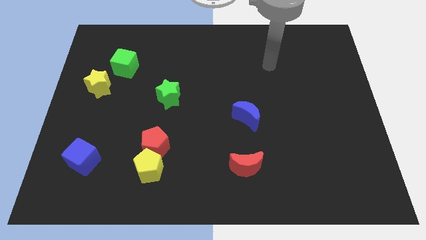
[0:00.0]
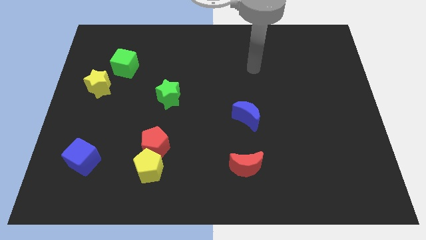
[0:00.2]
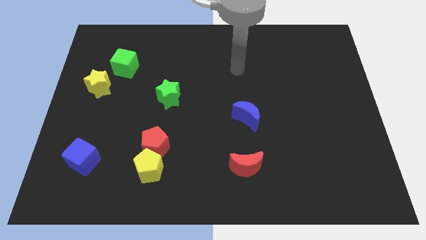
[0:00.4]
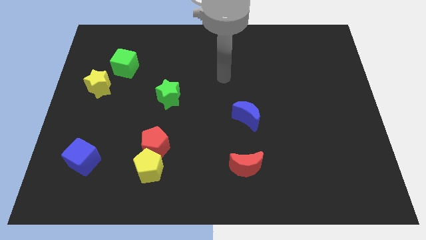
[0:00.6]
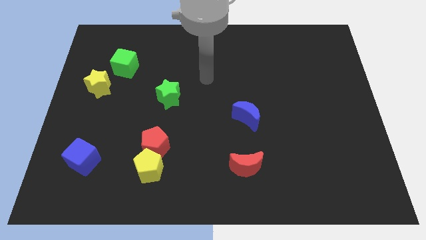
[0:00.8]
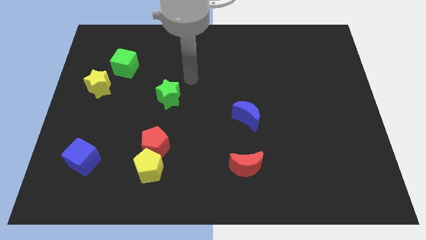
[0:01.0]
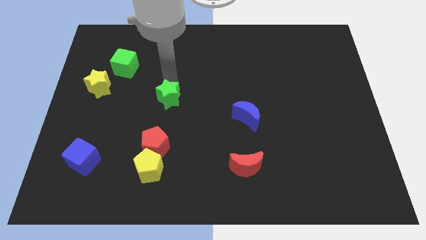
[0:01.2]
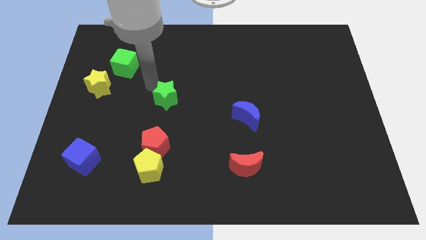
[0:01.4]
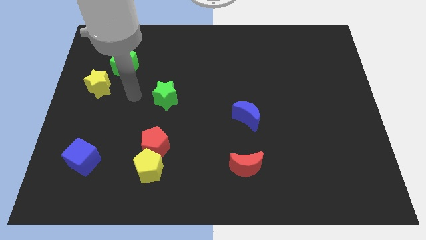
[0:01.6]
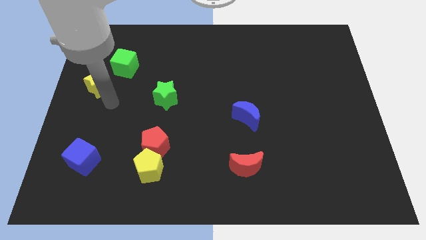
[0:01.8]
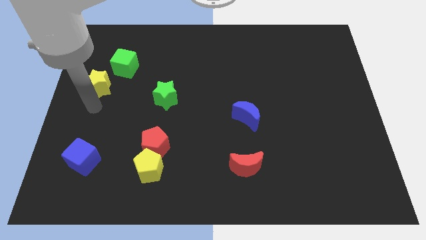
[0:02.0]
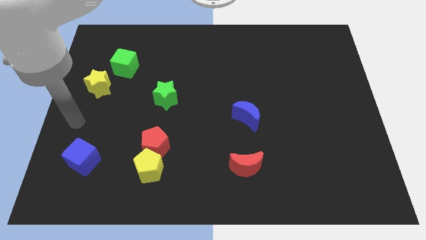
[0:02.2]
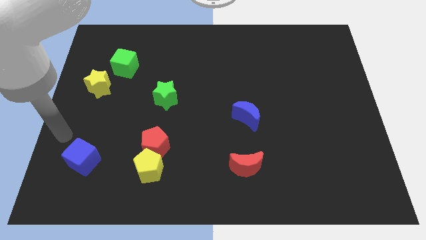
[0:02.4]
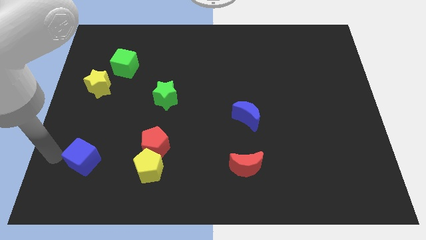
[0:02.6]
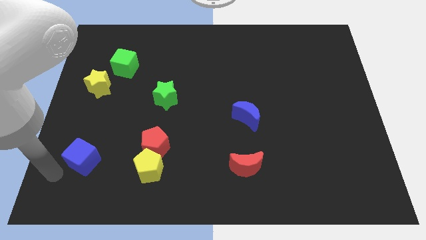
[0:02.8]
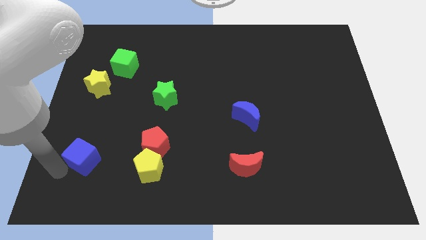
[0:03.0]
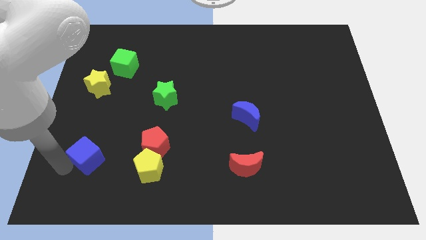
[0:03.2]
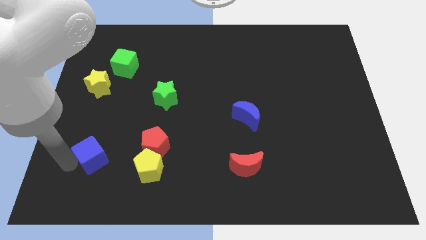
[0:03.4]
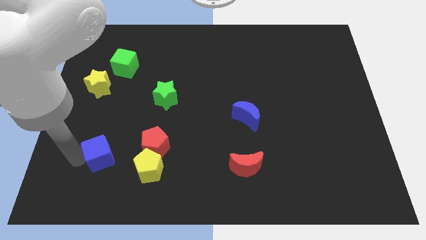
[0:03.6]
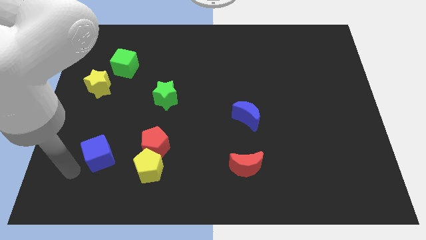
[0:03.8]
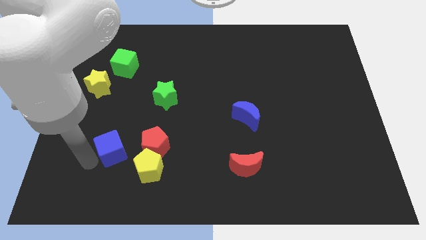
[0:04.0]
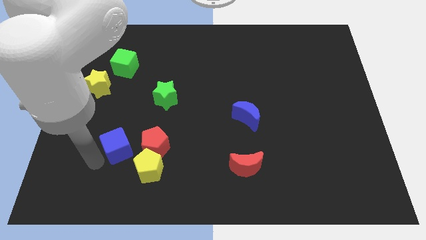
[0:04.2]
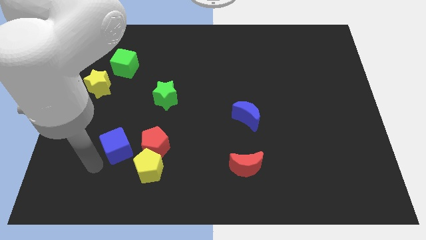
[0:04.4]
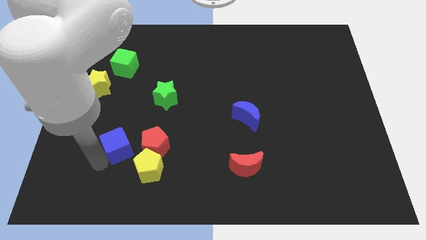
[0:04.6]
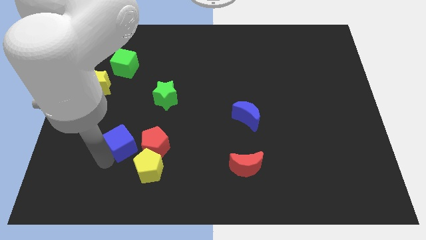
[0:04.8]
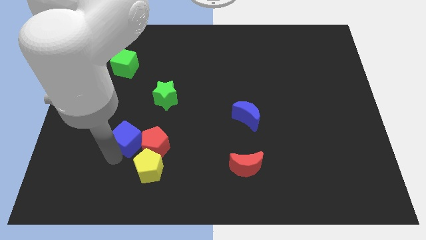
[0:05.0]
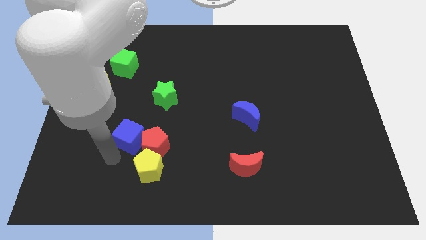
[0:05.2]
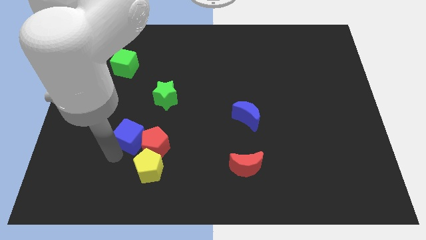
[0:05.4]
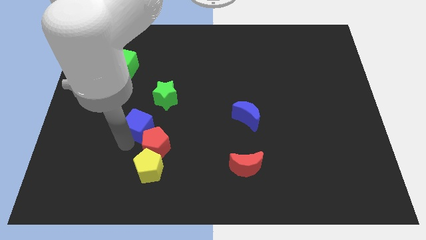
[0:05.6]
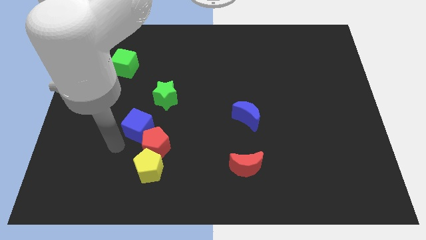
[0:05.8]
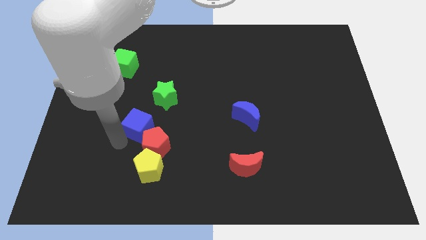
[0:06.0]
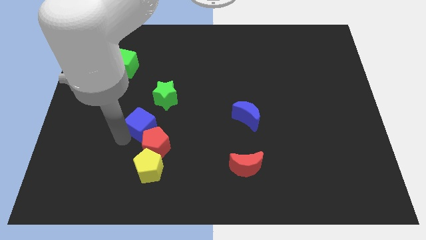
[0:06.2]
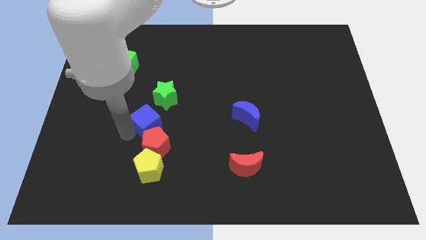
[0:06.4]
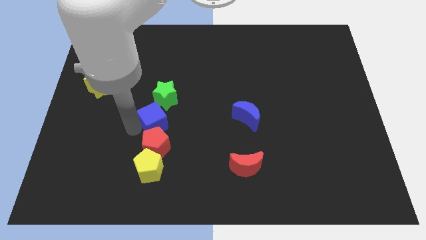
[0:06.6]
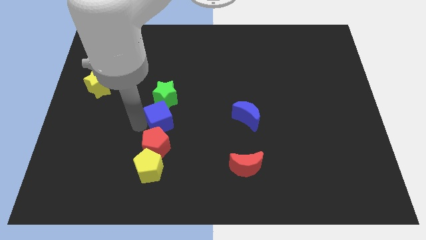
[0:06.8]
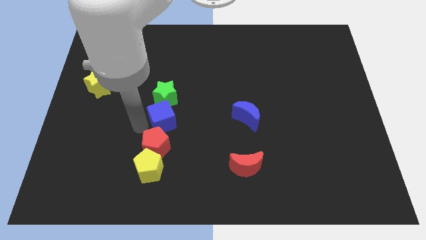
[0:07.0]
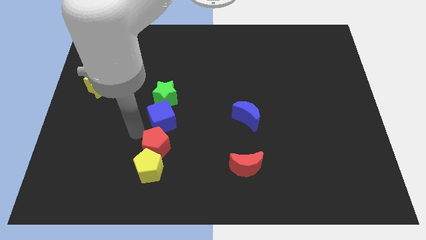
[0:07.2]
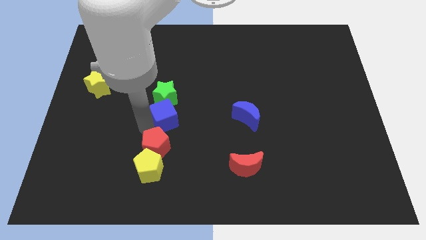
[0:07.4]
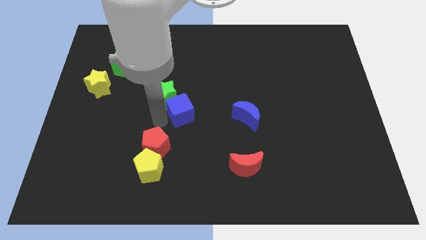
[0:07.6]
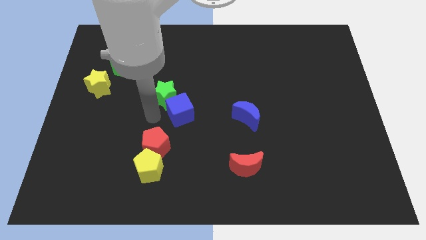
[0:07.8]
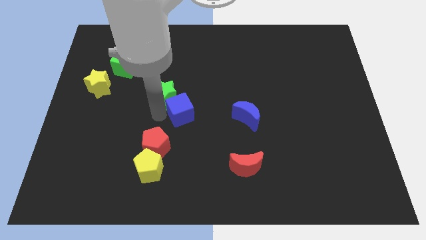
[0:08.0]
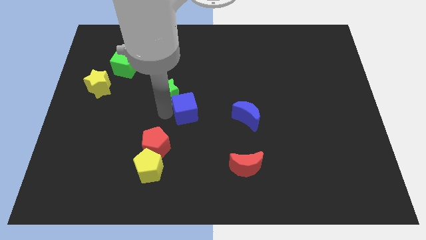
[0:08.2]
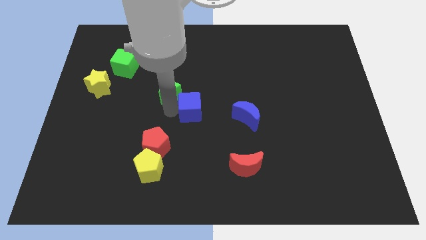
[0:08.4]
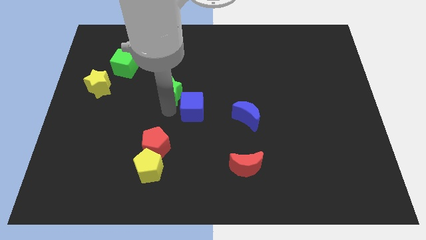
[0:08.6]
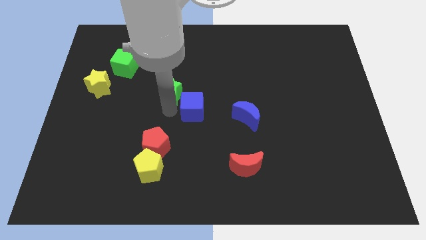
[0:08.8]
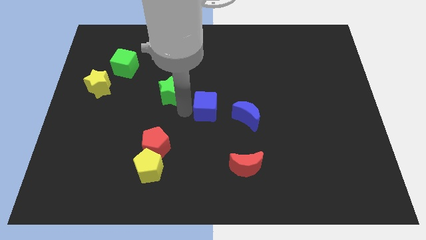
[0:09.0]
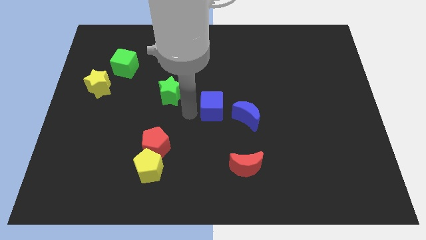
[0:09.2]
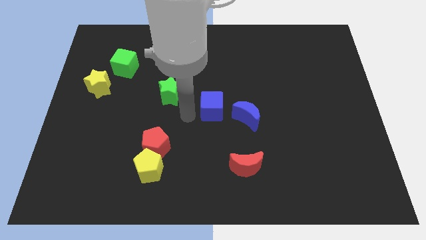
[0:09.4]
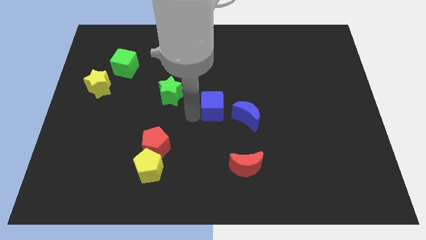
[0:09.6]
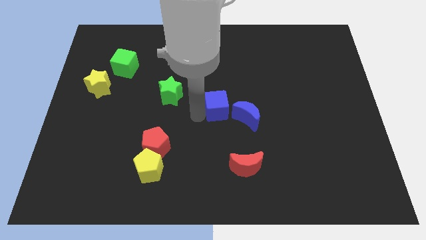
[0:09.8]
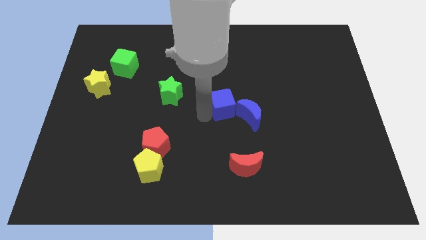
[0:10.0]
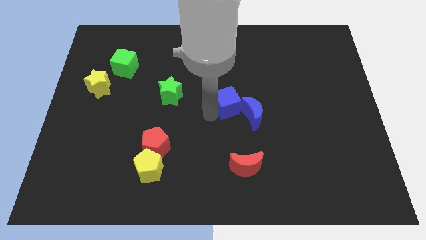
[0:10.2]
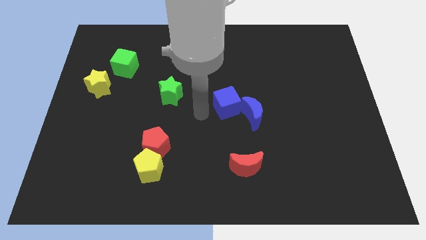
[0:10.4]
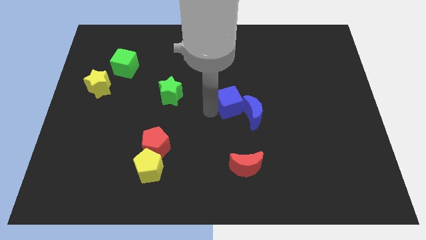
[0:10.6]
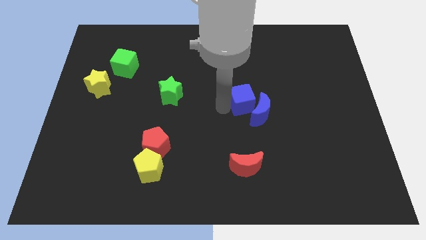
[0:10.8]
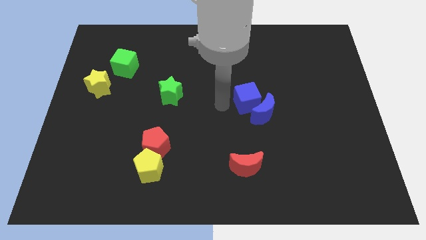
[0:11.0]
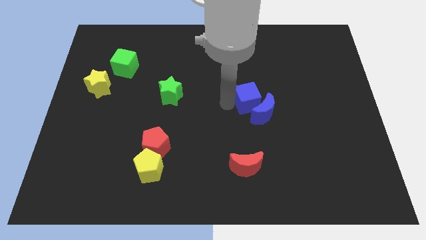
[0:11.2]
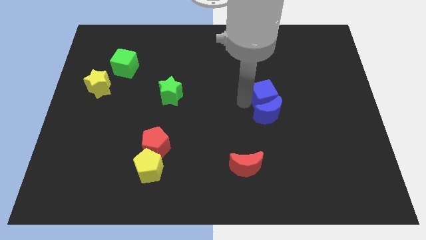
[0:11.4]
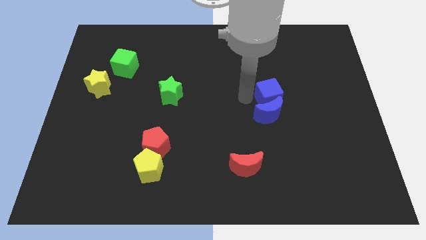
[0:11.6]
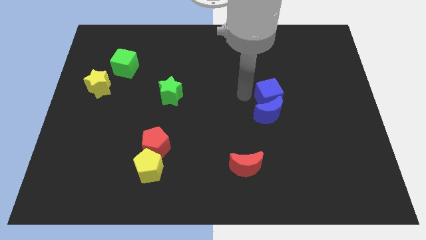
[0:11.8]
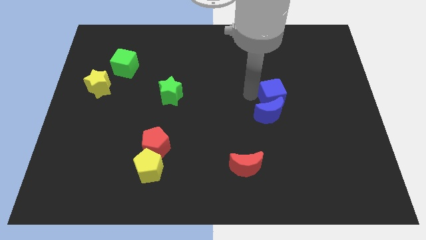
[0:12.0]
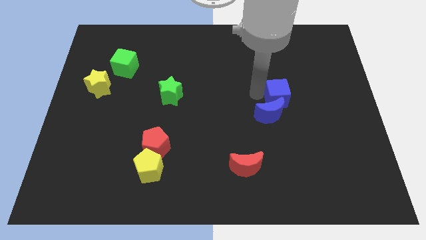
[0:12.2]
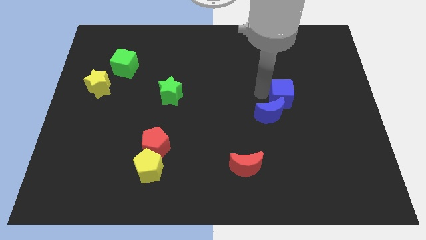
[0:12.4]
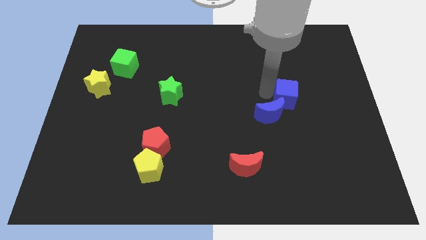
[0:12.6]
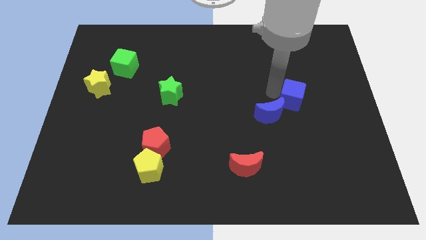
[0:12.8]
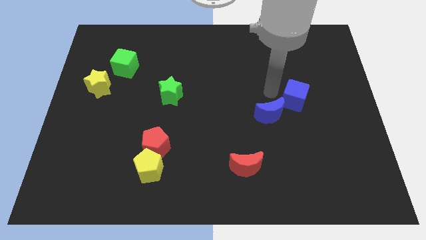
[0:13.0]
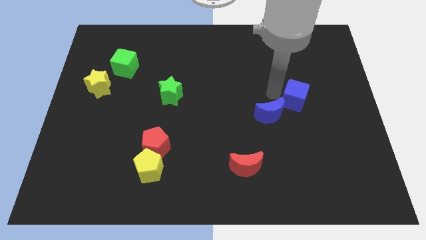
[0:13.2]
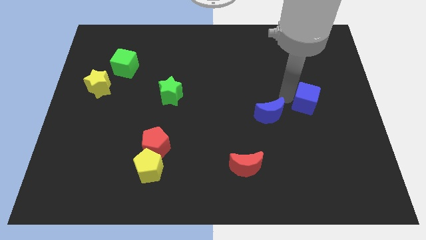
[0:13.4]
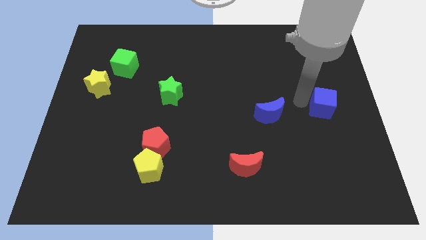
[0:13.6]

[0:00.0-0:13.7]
slide the blue cube to the right side of the board
